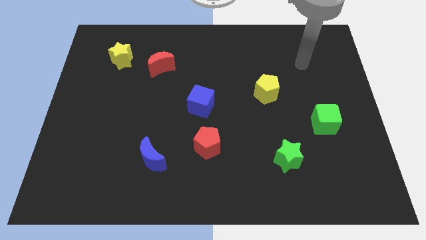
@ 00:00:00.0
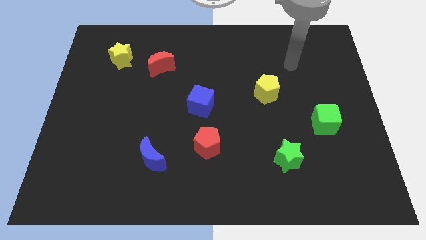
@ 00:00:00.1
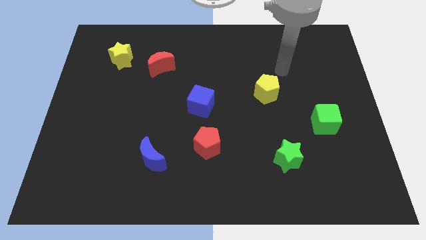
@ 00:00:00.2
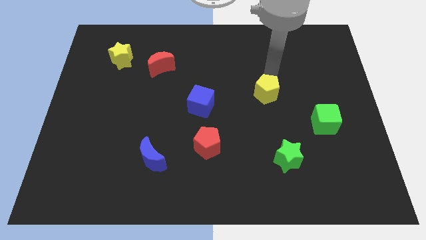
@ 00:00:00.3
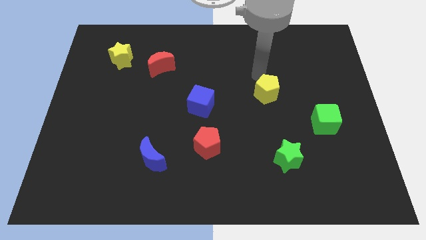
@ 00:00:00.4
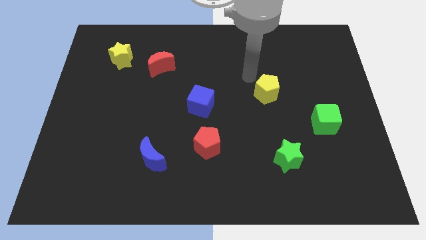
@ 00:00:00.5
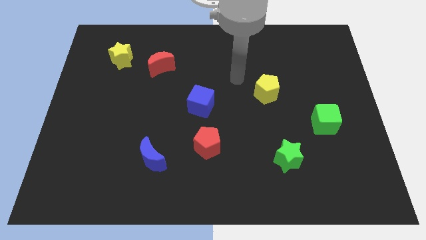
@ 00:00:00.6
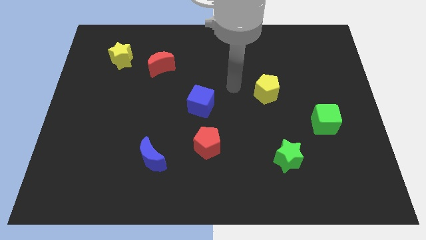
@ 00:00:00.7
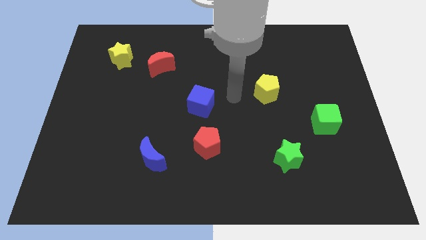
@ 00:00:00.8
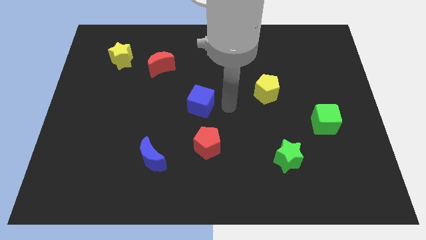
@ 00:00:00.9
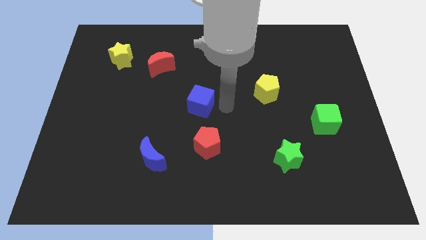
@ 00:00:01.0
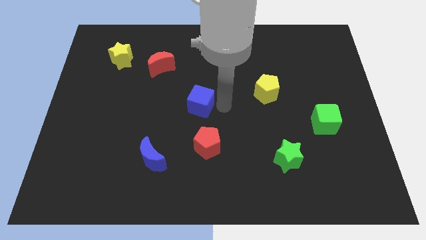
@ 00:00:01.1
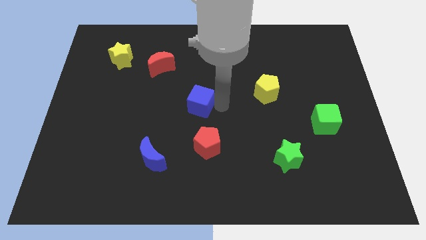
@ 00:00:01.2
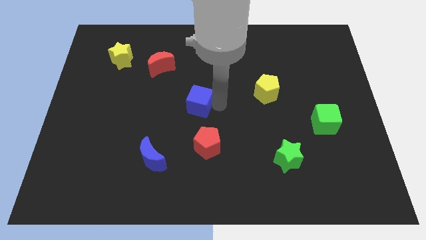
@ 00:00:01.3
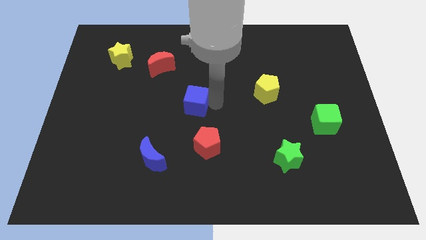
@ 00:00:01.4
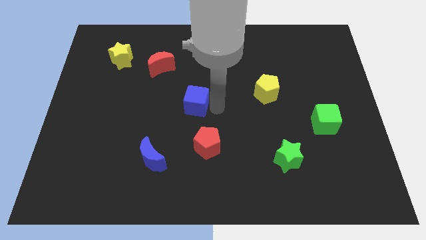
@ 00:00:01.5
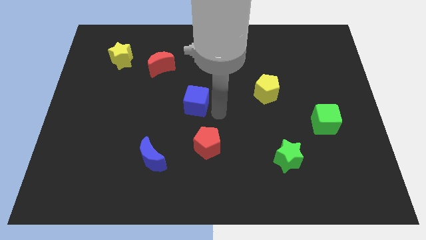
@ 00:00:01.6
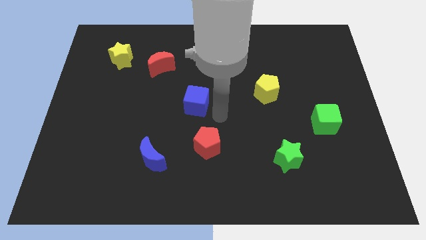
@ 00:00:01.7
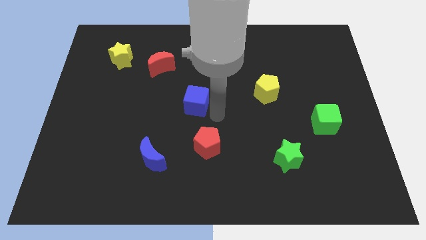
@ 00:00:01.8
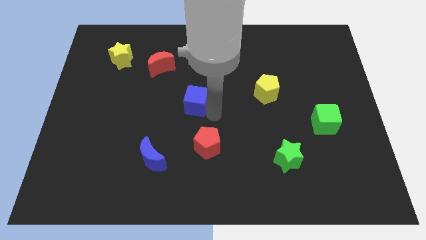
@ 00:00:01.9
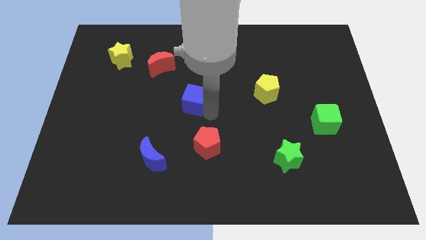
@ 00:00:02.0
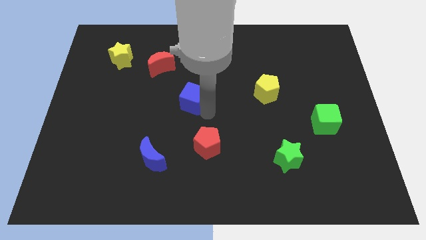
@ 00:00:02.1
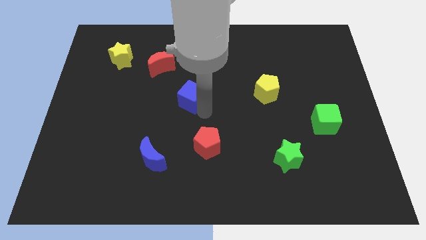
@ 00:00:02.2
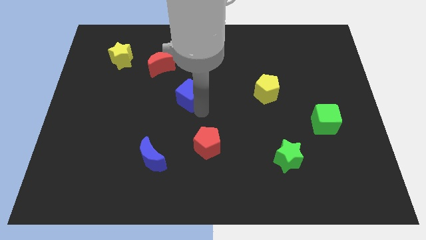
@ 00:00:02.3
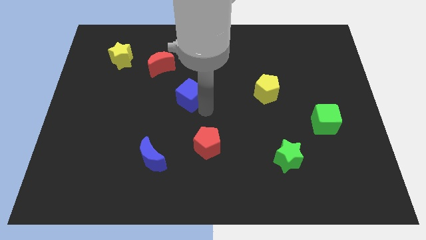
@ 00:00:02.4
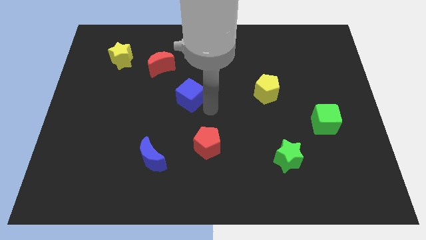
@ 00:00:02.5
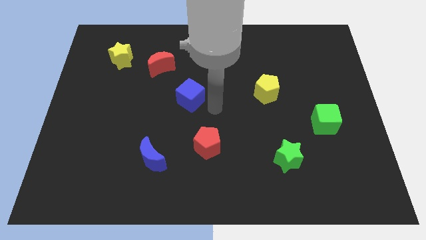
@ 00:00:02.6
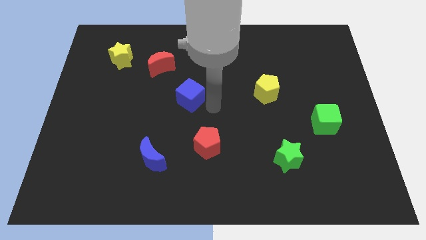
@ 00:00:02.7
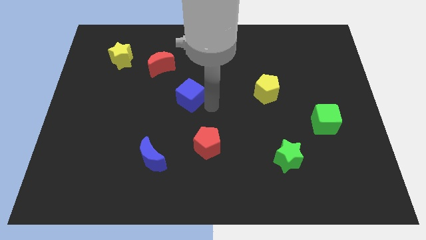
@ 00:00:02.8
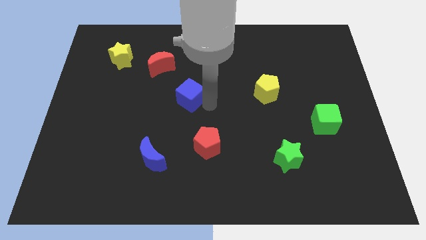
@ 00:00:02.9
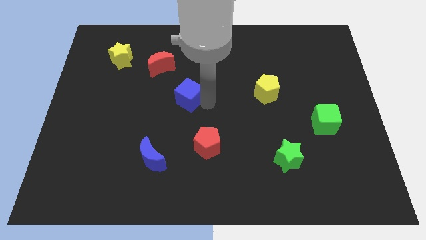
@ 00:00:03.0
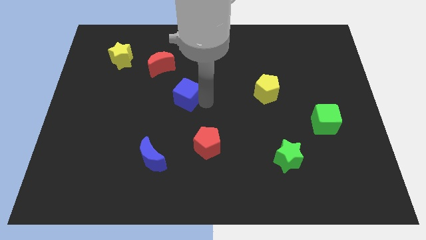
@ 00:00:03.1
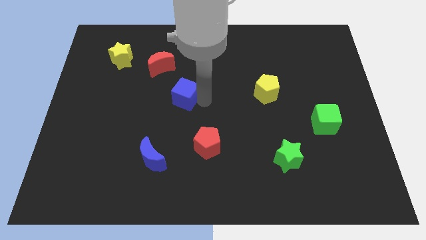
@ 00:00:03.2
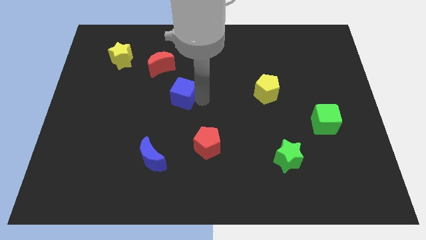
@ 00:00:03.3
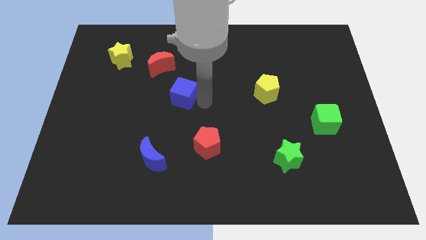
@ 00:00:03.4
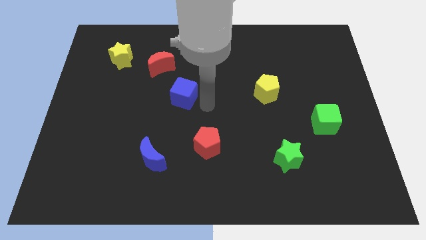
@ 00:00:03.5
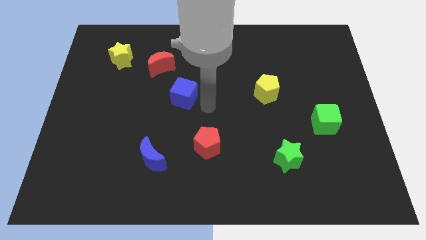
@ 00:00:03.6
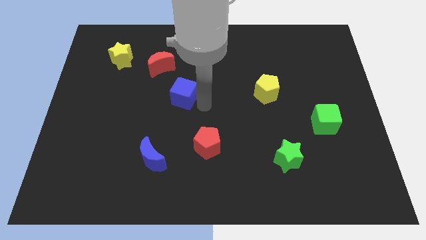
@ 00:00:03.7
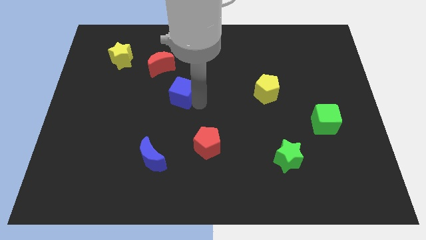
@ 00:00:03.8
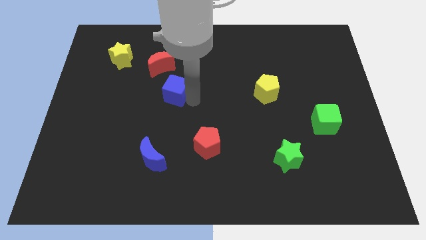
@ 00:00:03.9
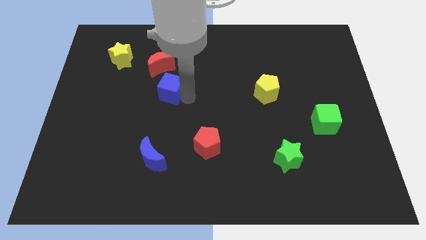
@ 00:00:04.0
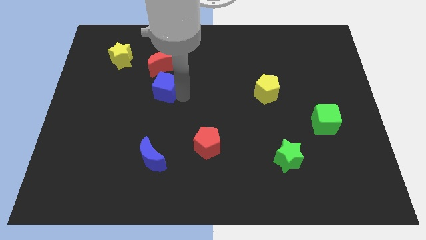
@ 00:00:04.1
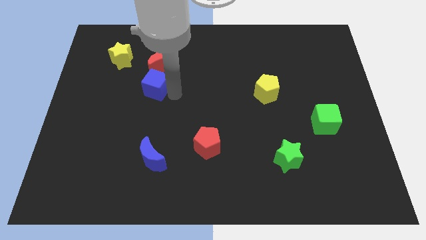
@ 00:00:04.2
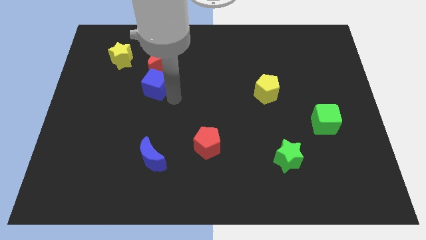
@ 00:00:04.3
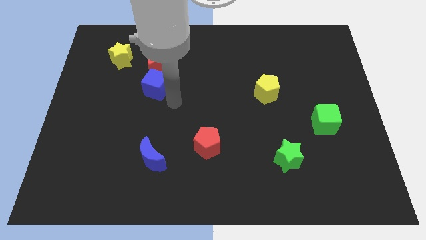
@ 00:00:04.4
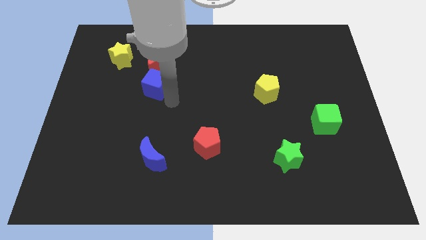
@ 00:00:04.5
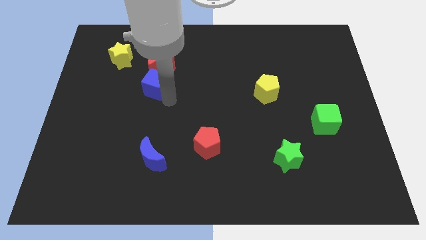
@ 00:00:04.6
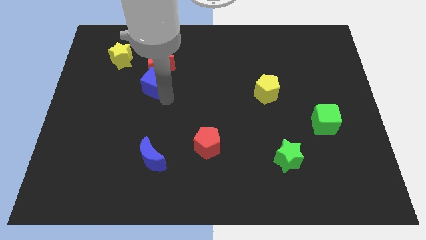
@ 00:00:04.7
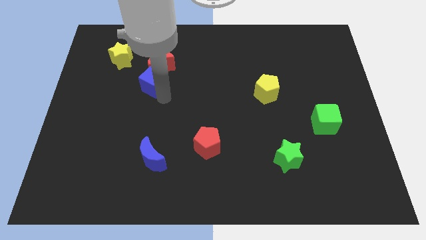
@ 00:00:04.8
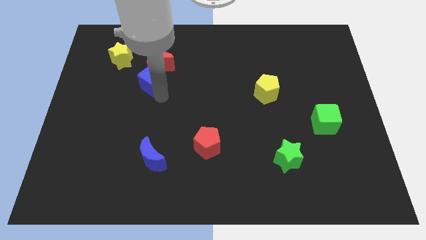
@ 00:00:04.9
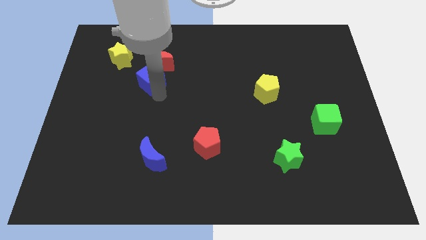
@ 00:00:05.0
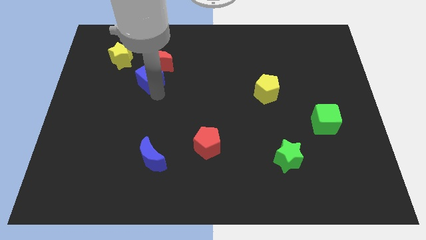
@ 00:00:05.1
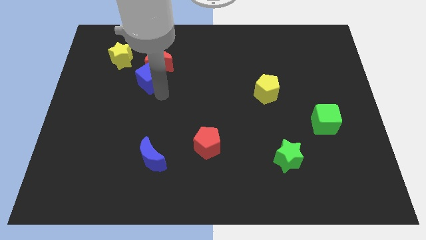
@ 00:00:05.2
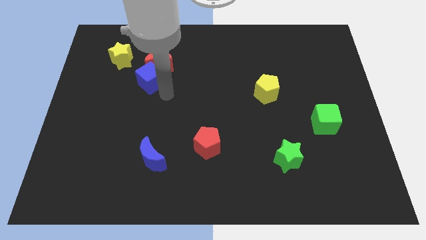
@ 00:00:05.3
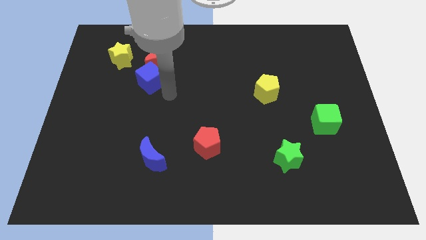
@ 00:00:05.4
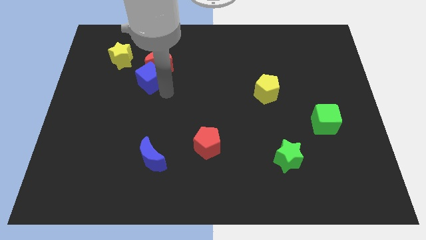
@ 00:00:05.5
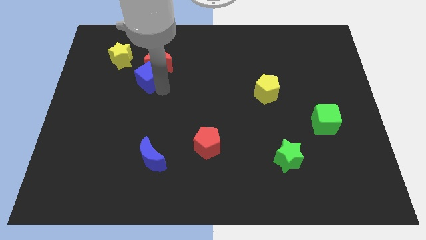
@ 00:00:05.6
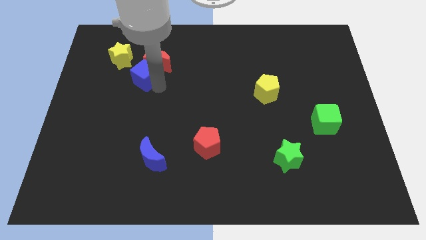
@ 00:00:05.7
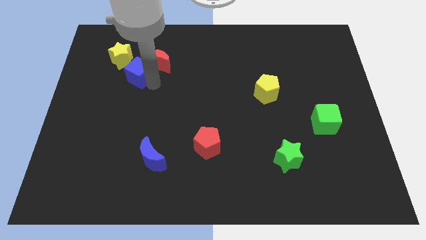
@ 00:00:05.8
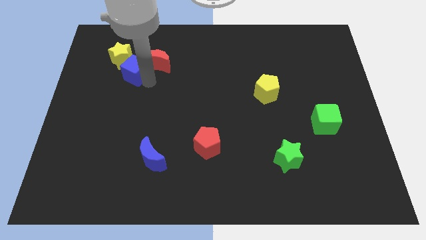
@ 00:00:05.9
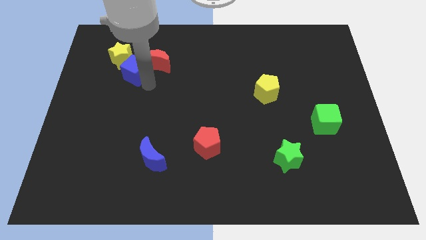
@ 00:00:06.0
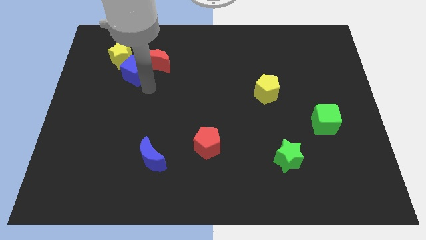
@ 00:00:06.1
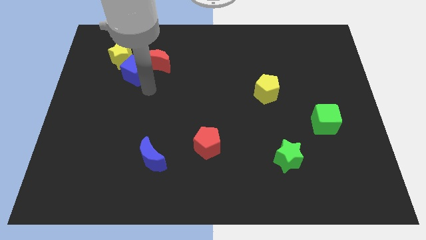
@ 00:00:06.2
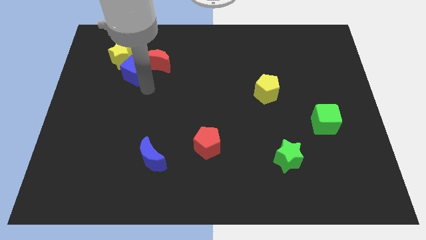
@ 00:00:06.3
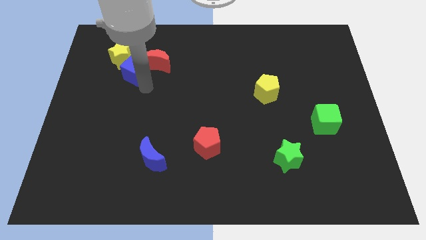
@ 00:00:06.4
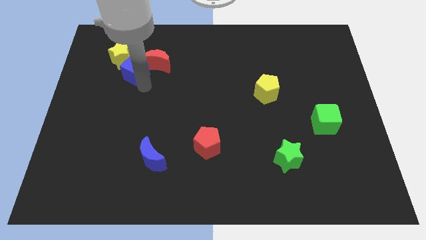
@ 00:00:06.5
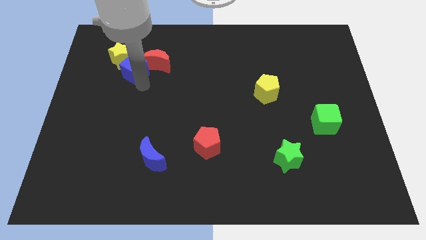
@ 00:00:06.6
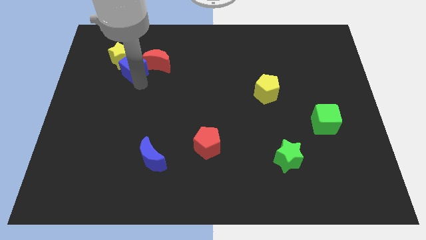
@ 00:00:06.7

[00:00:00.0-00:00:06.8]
push the blue cube towards the yellow star
